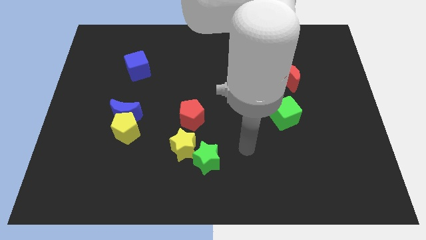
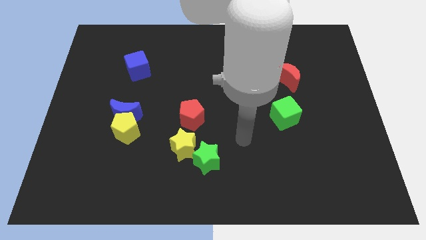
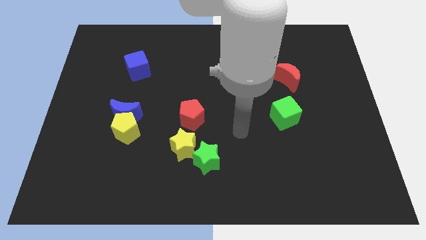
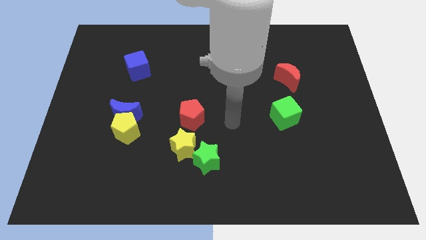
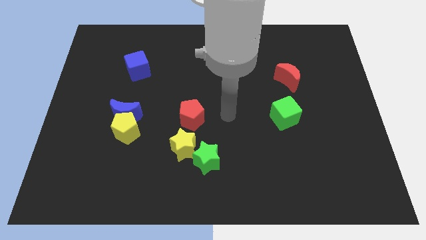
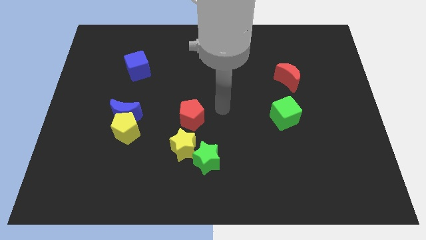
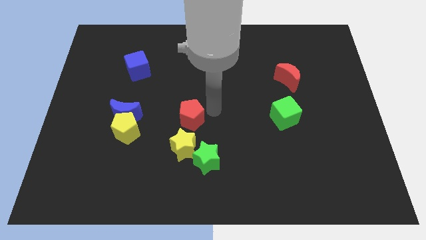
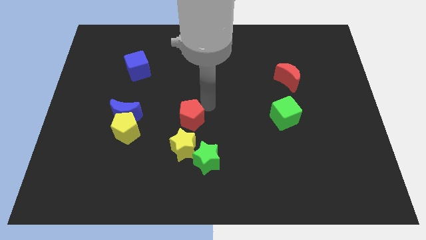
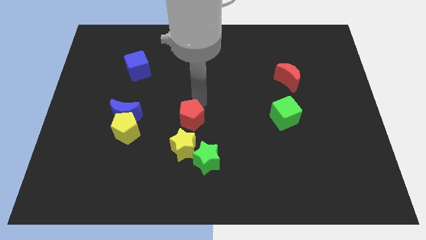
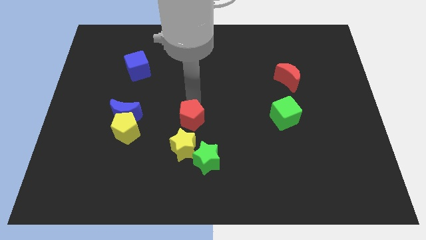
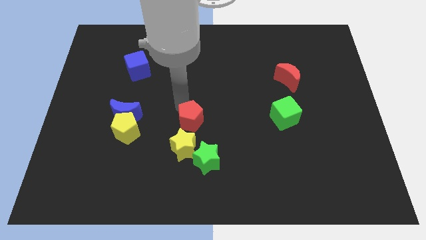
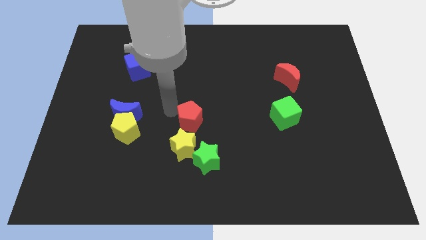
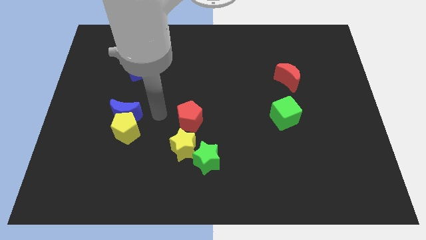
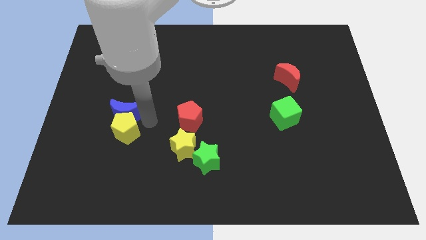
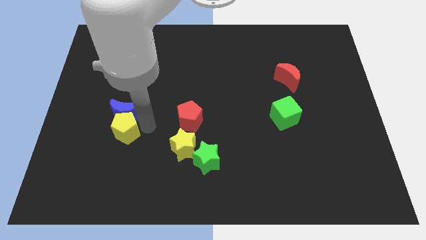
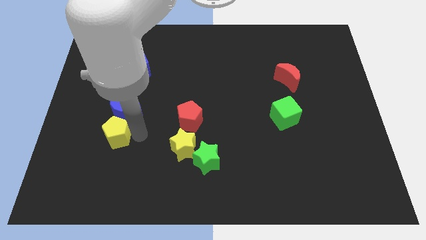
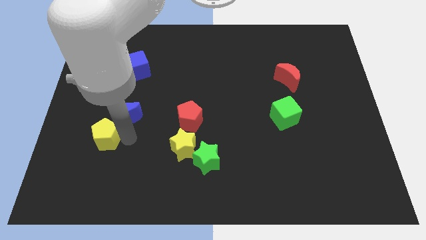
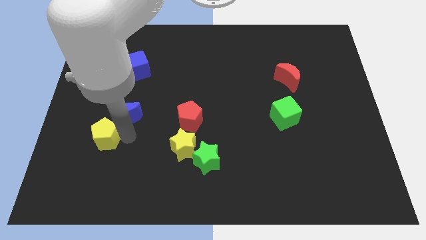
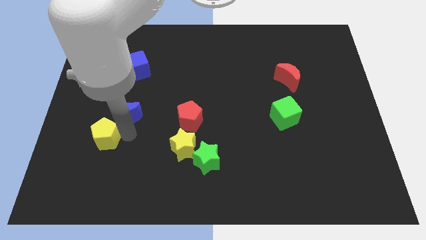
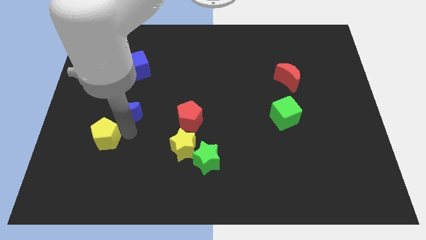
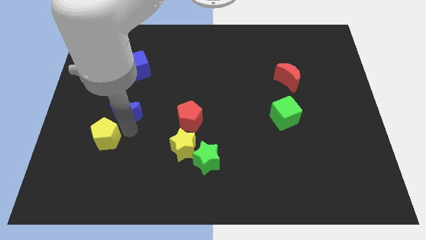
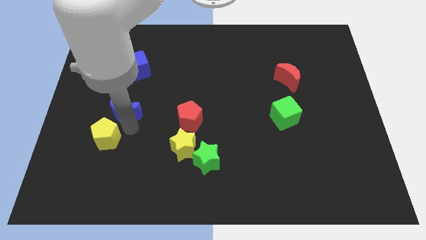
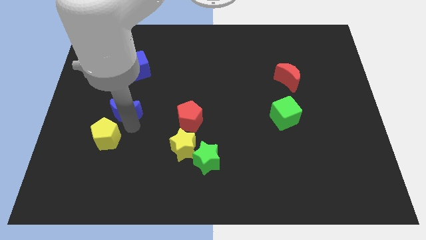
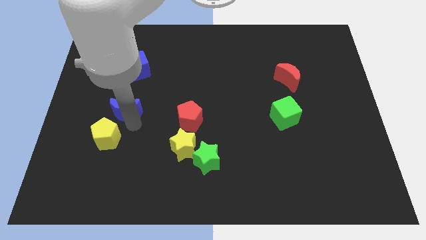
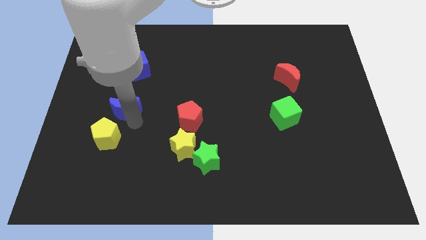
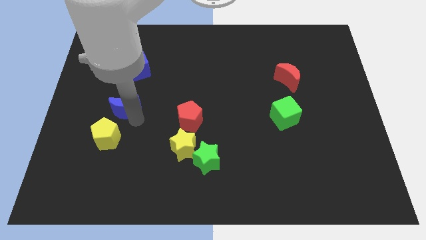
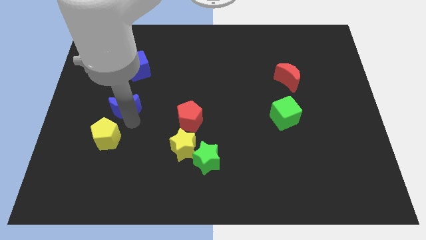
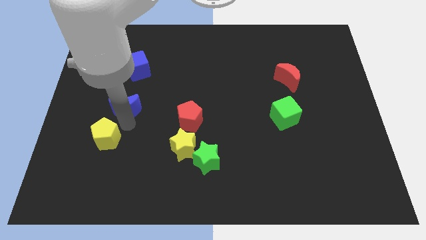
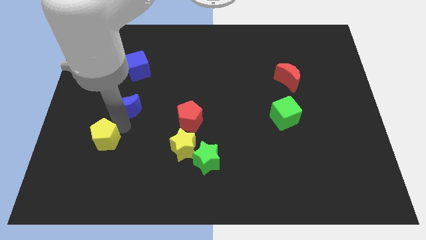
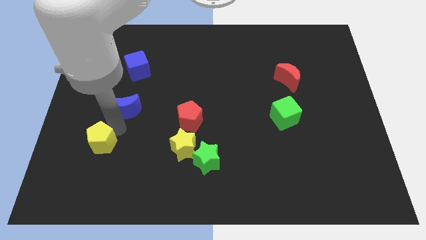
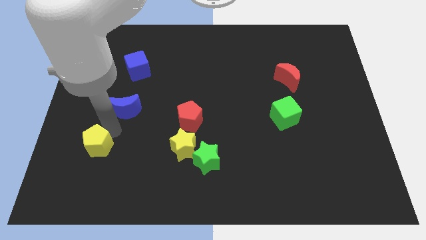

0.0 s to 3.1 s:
separate the blue moon from the yellow pentagon

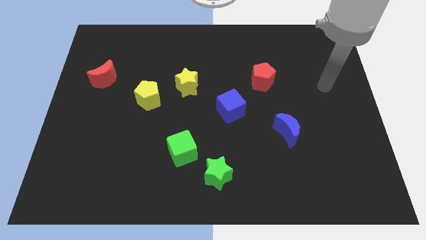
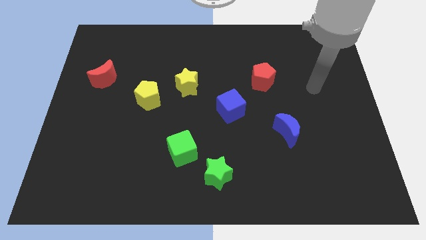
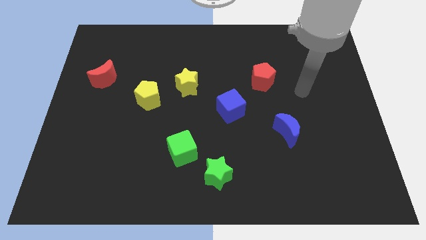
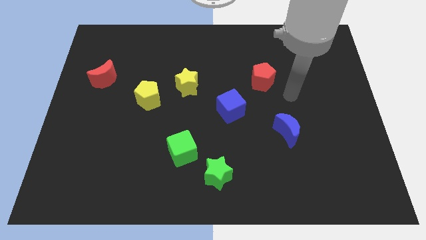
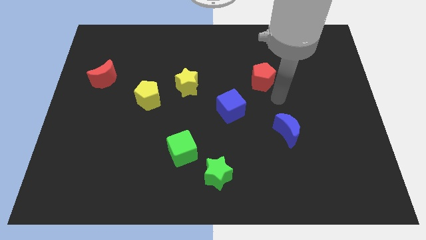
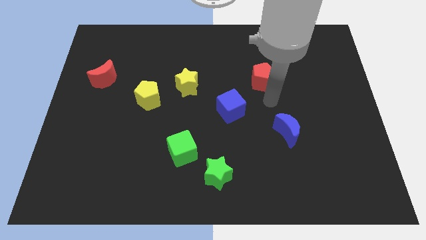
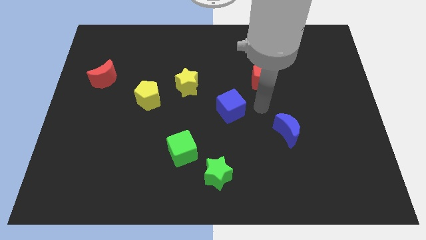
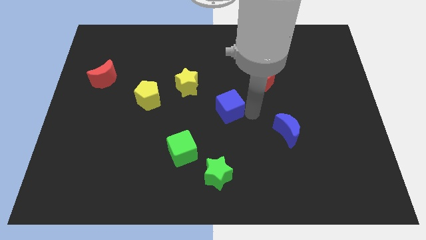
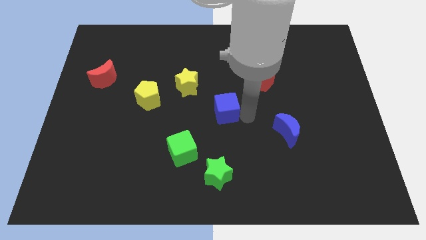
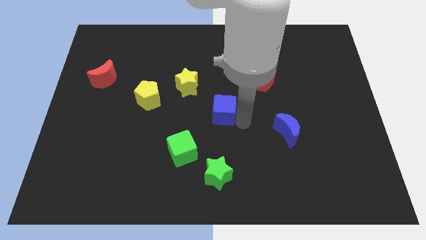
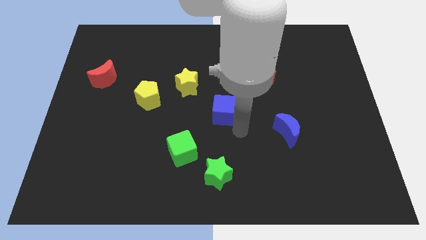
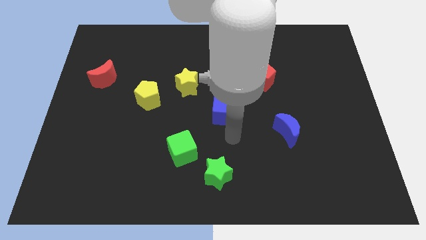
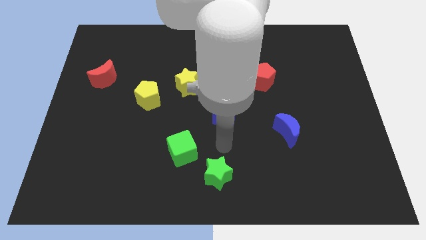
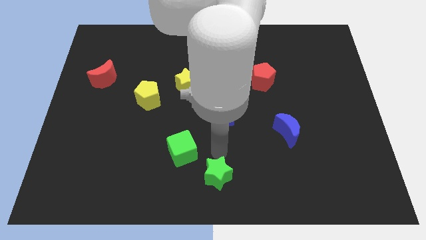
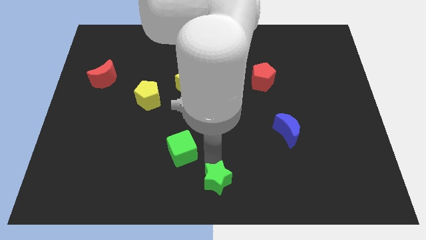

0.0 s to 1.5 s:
pull the green cube apart from the green star

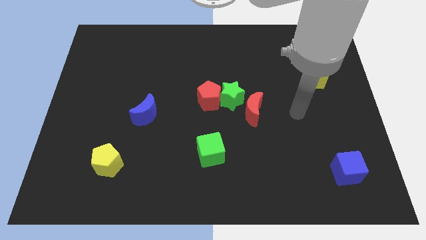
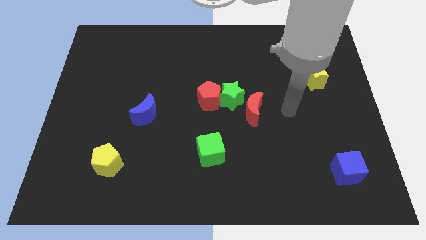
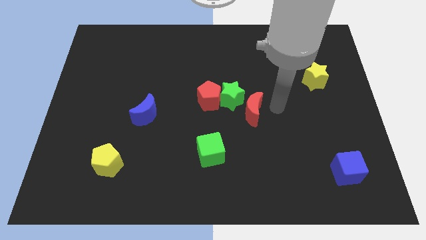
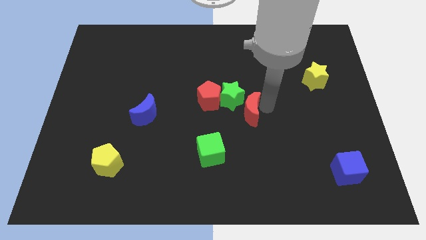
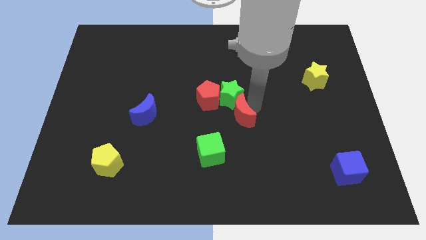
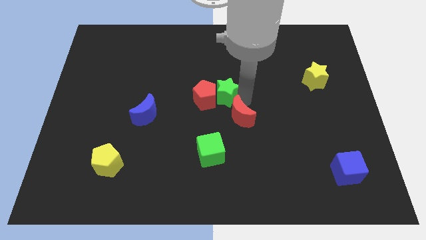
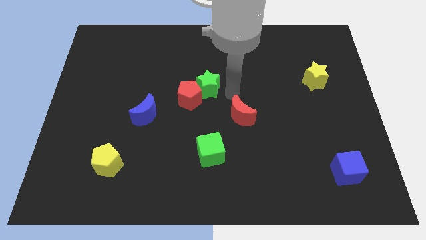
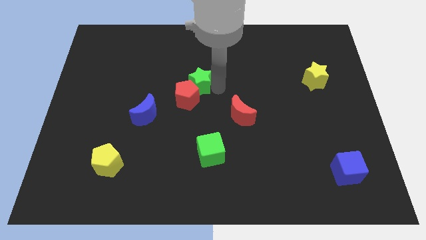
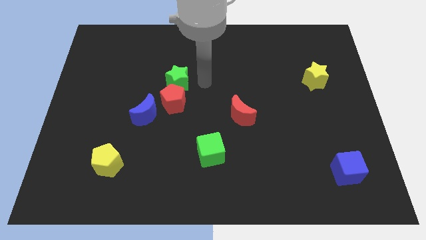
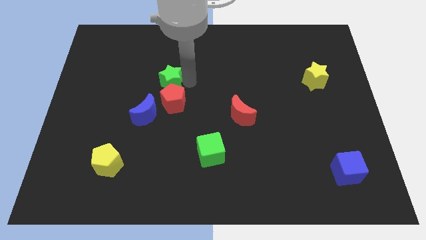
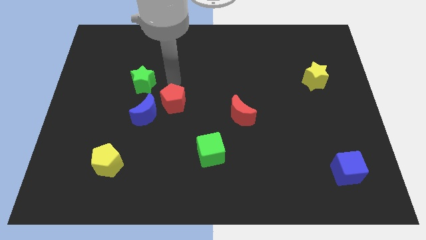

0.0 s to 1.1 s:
pull the red pentagon apart from the green star

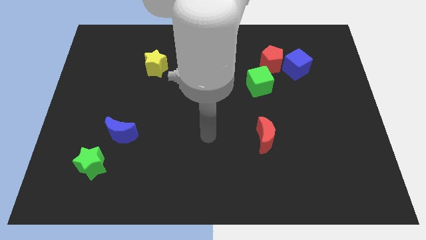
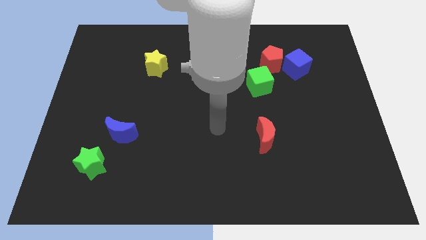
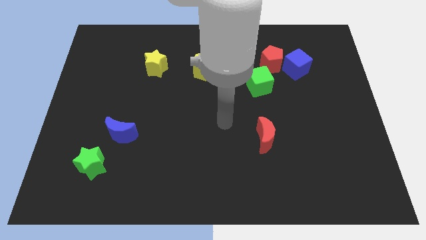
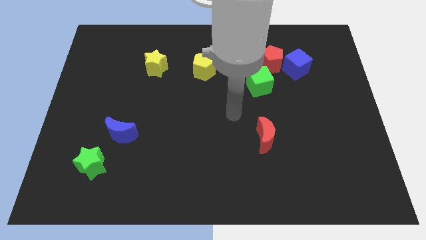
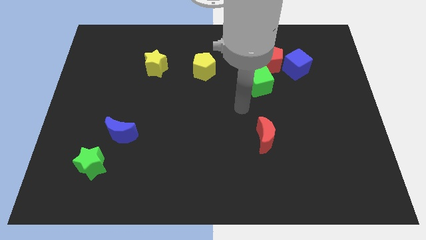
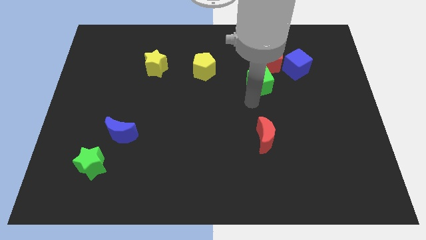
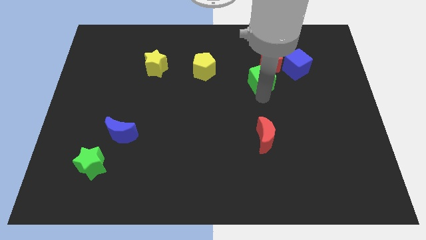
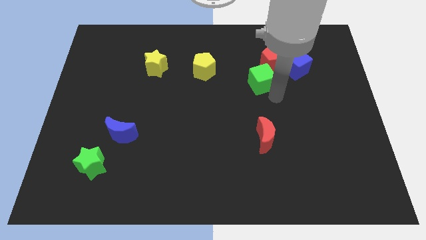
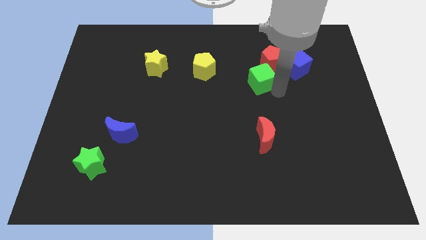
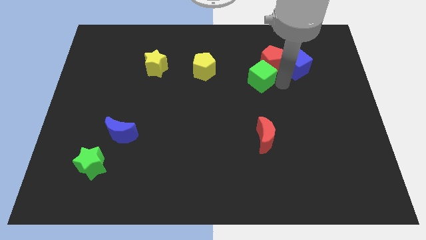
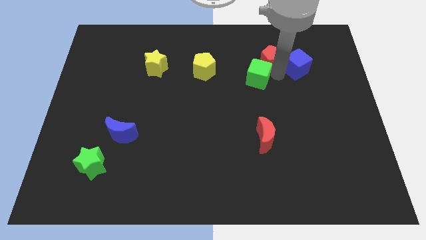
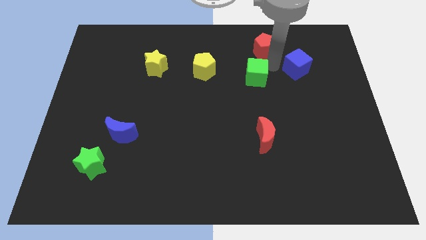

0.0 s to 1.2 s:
move the blue cube away from the red pentagon

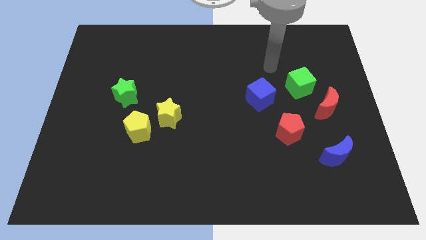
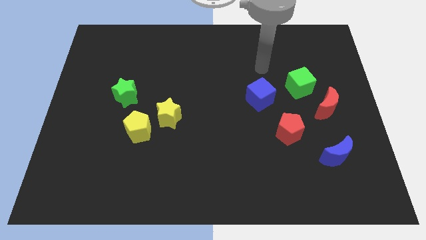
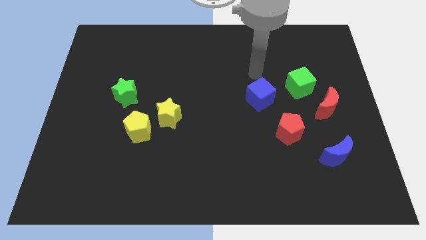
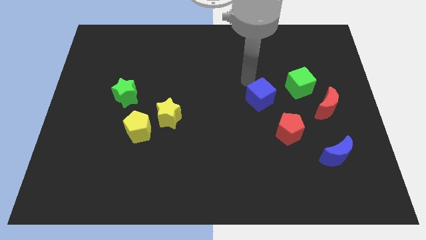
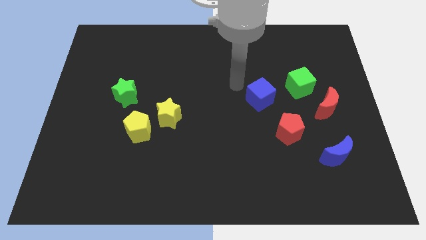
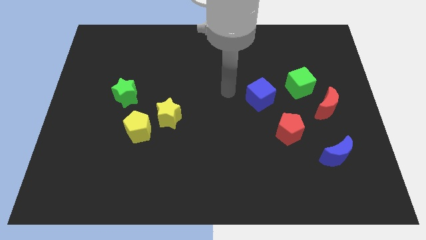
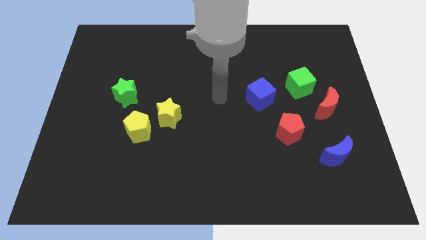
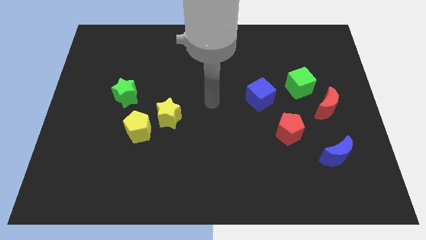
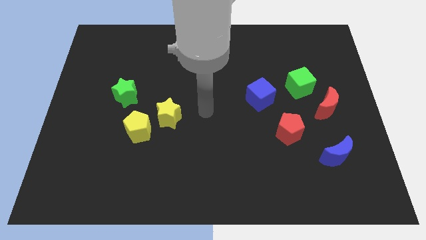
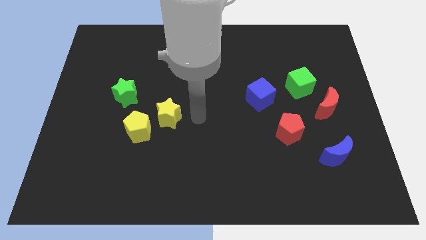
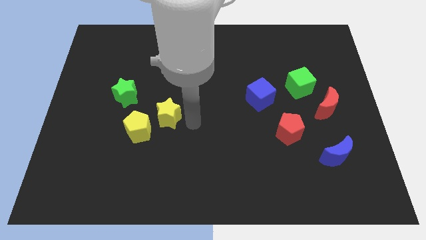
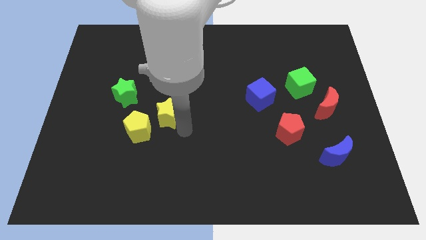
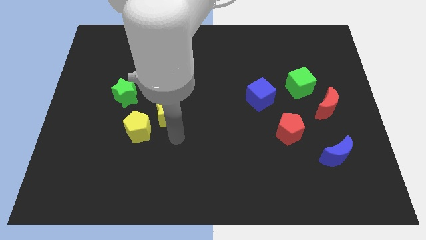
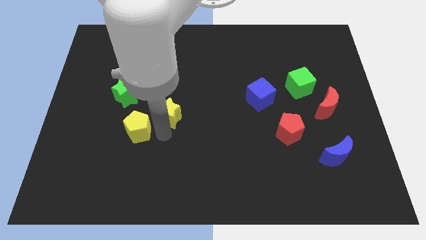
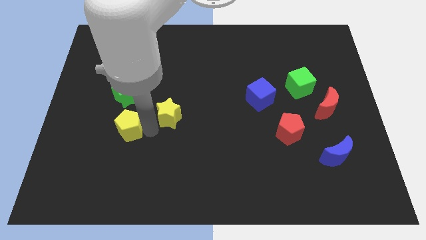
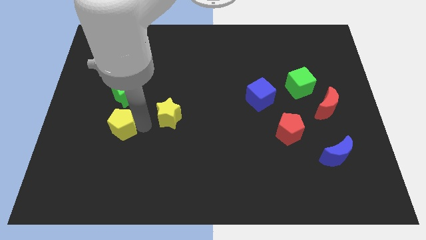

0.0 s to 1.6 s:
move the yellow star away from the yellow pentagon

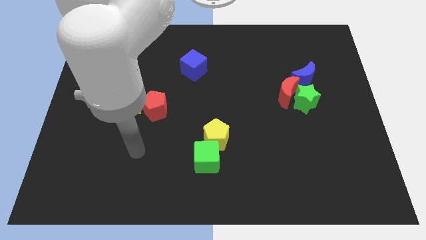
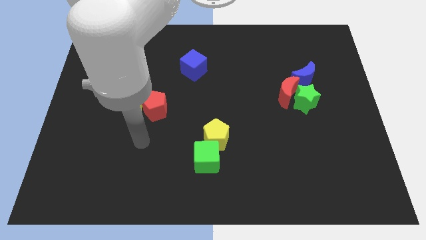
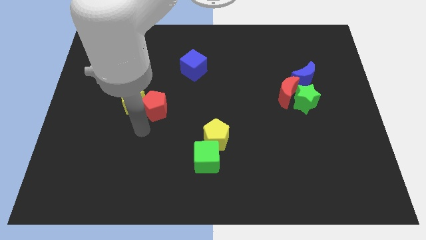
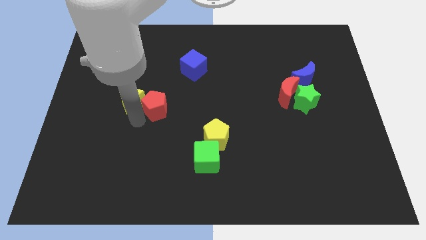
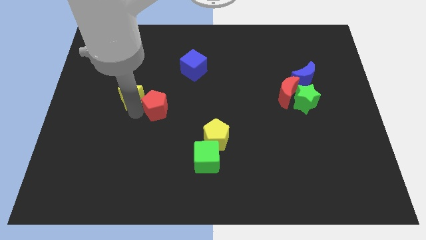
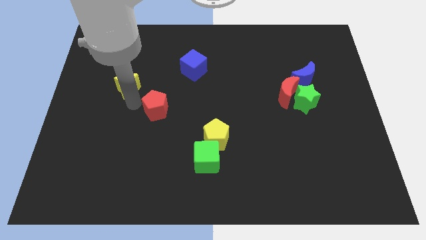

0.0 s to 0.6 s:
pull the red pentagon apart from the yellow star

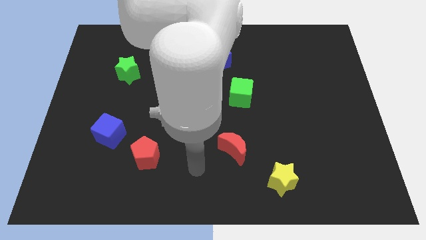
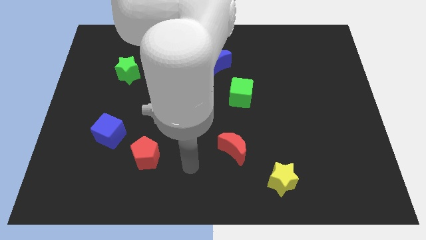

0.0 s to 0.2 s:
pull the red pentagon apart from the blue cube
